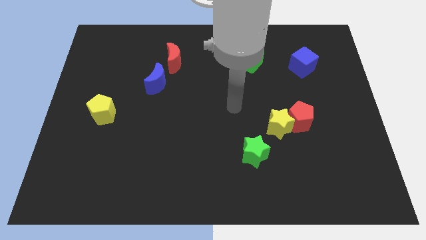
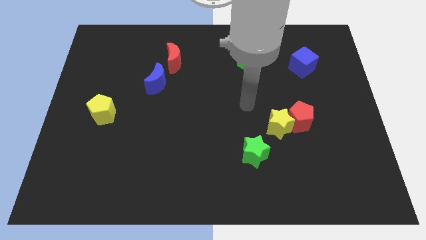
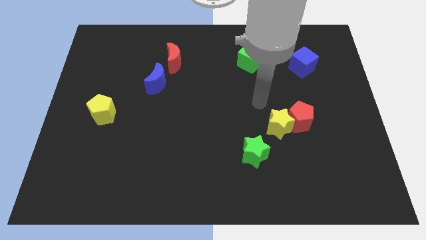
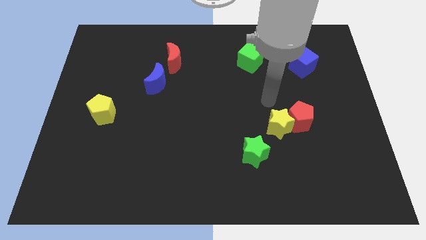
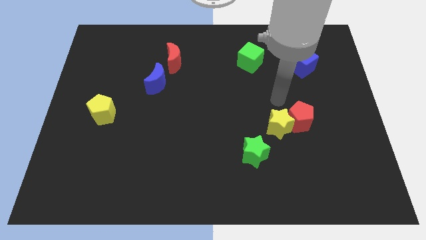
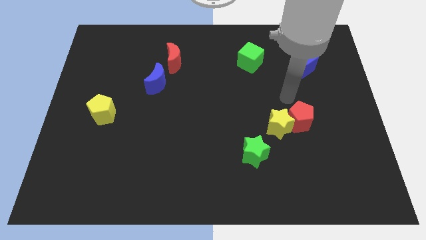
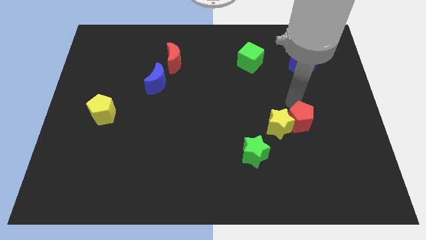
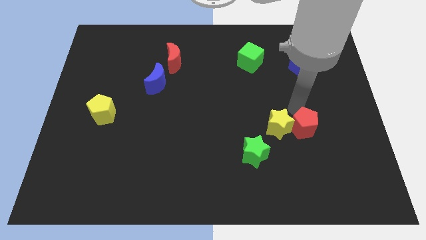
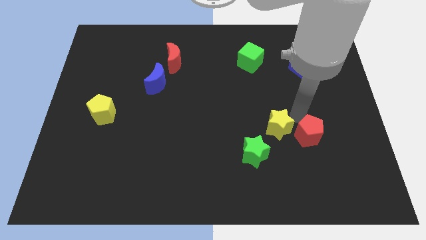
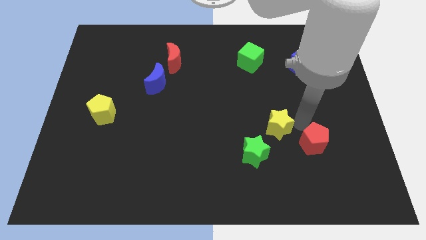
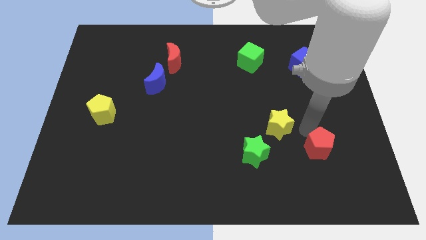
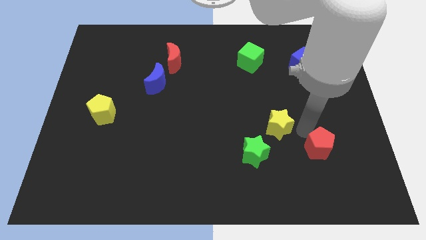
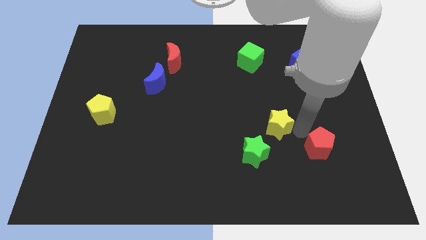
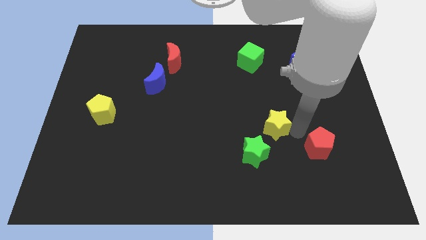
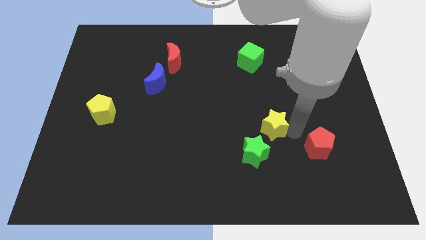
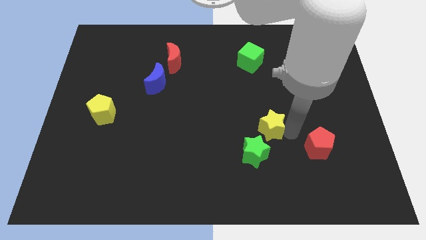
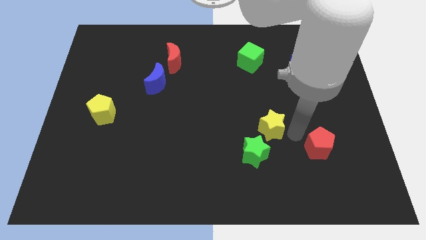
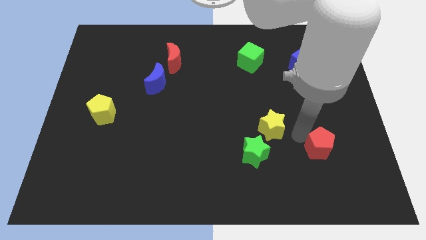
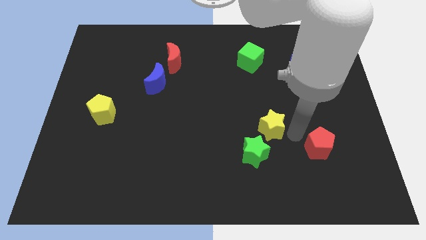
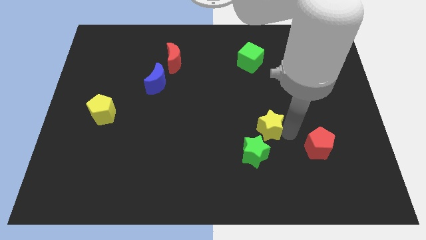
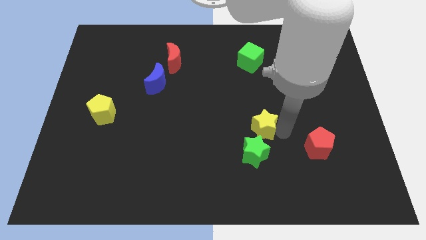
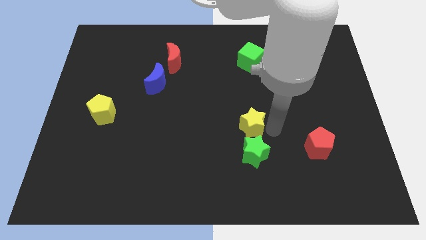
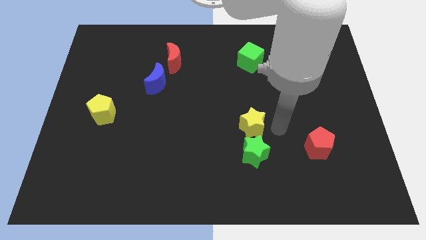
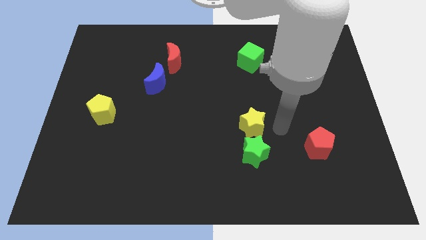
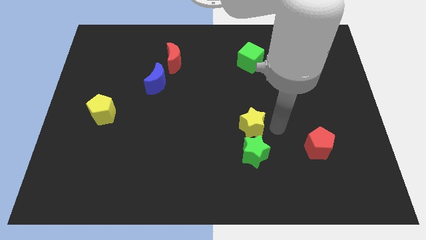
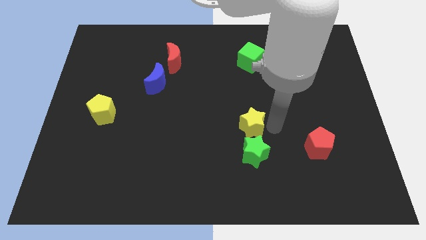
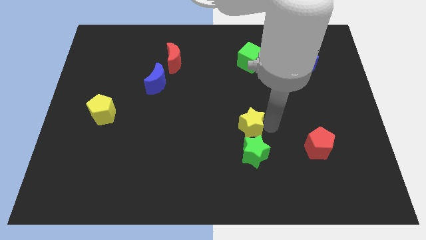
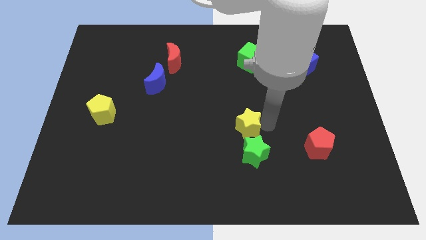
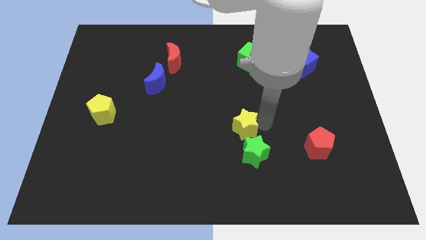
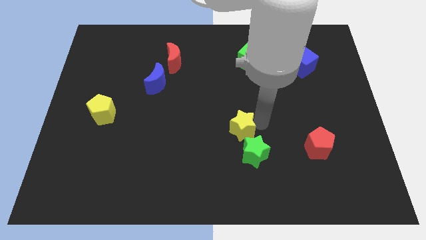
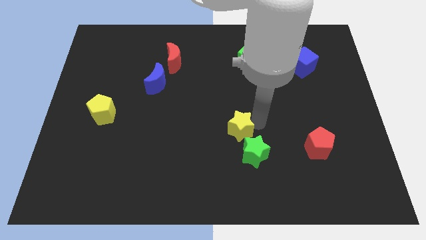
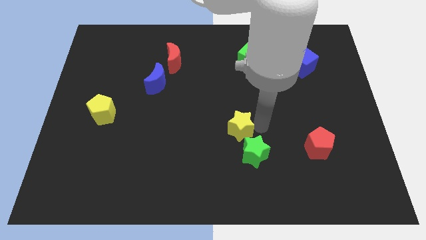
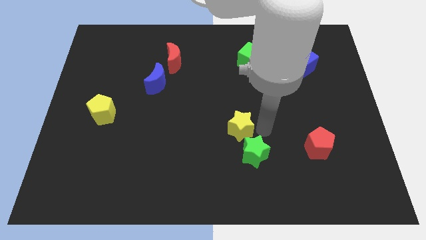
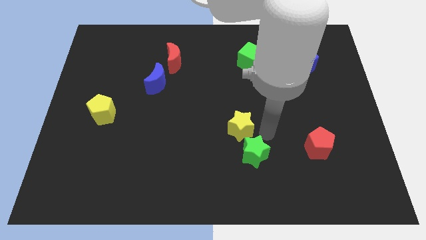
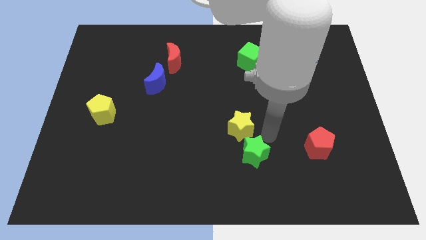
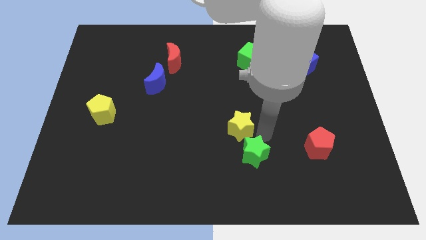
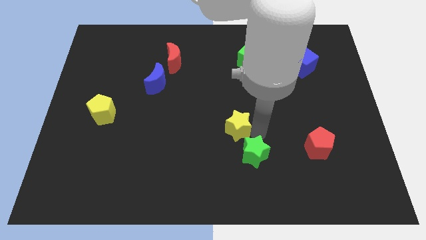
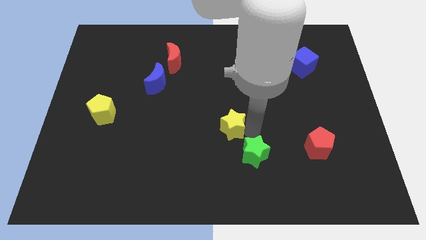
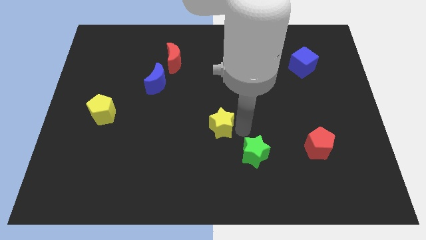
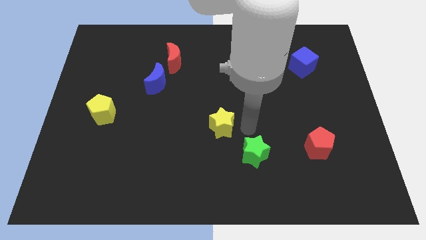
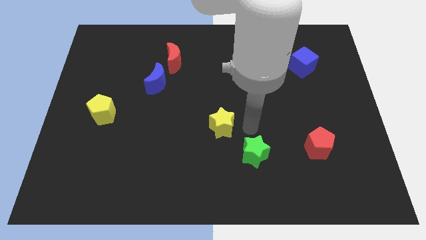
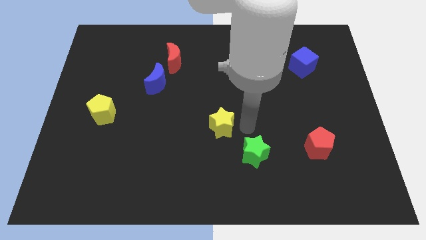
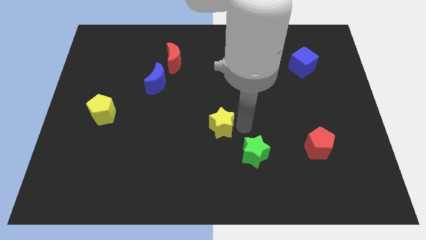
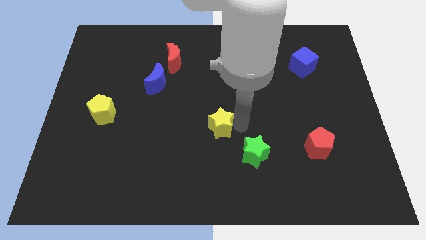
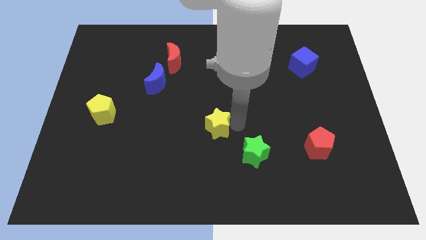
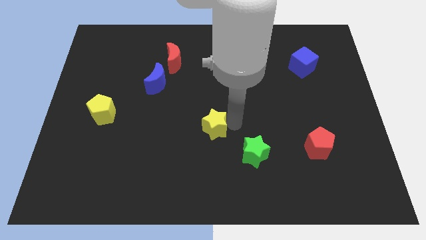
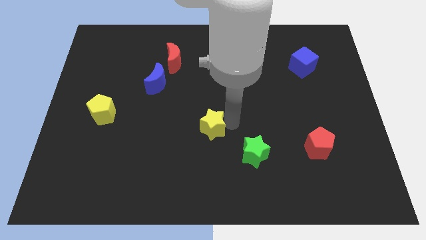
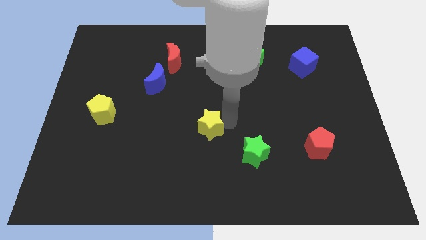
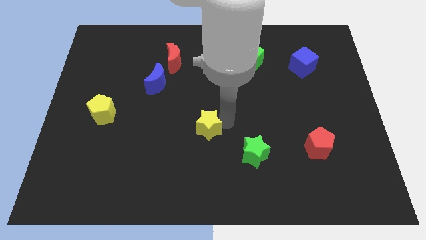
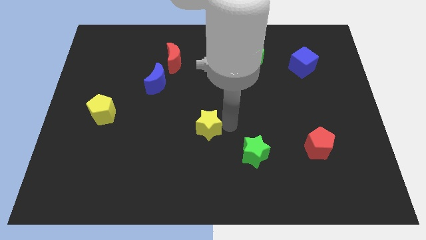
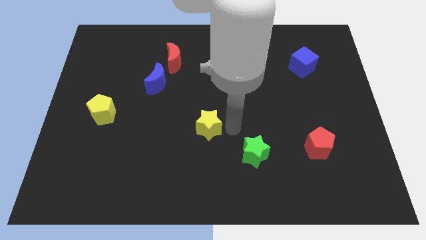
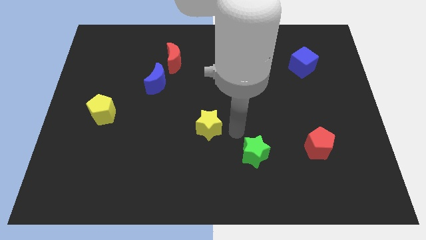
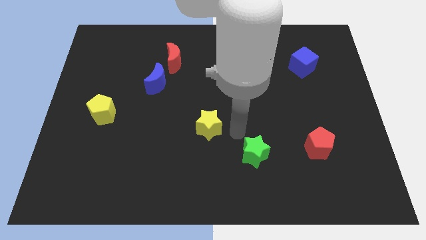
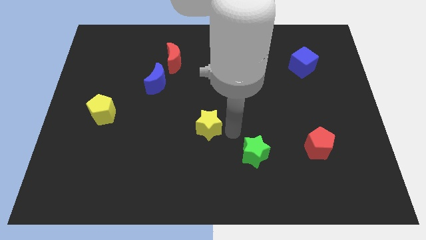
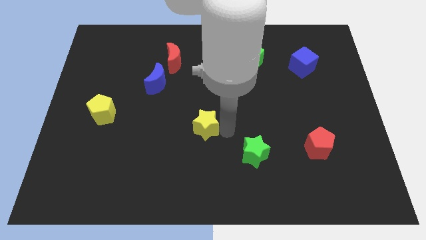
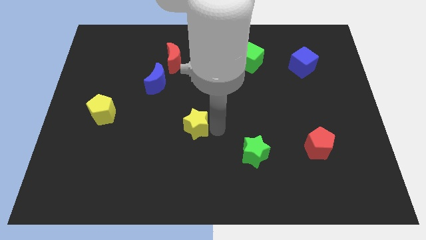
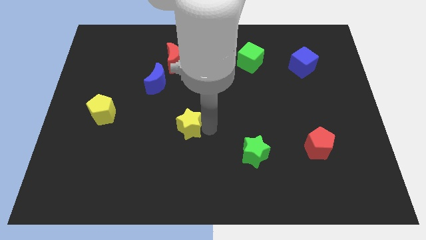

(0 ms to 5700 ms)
move the yellow star to the left

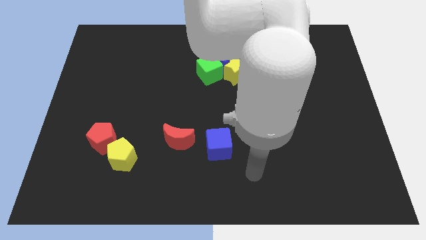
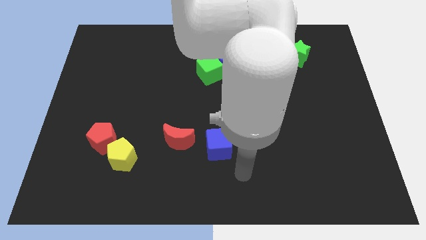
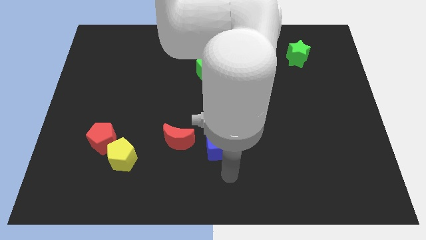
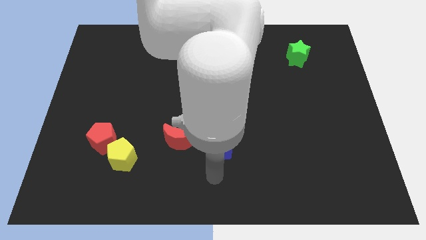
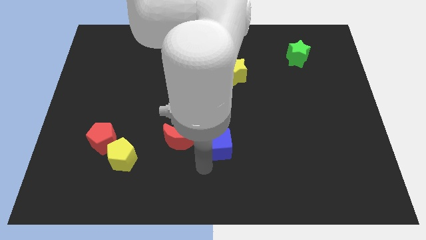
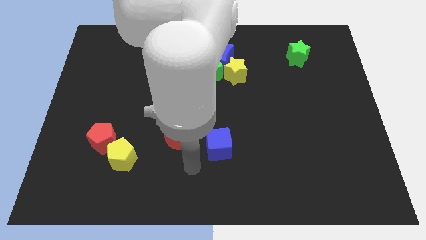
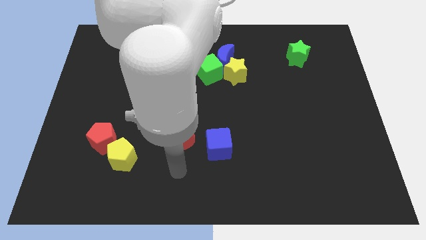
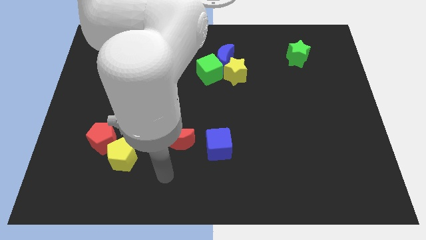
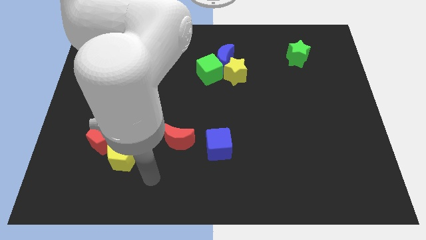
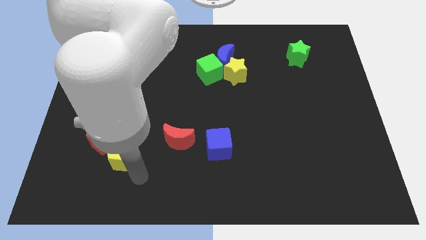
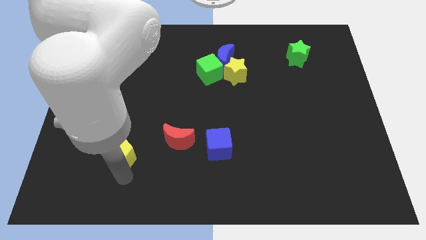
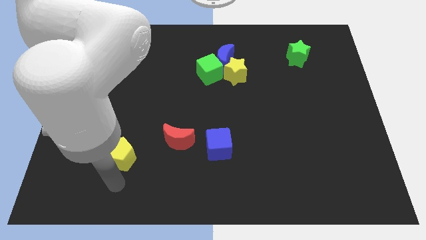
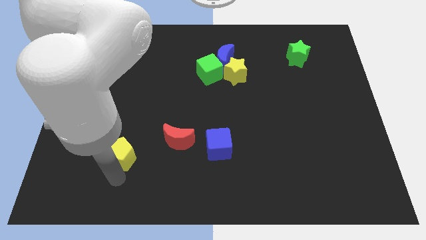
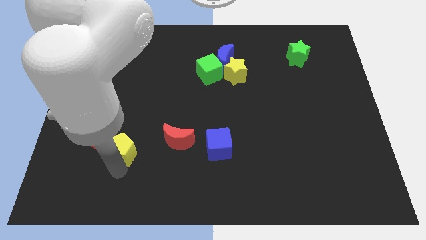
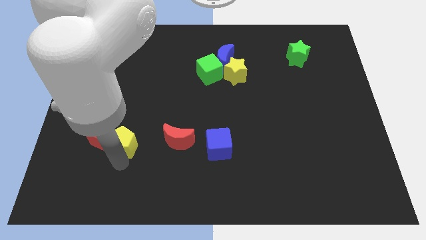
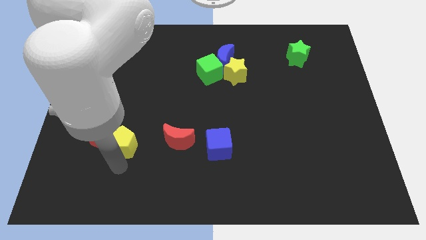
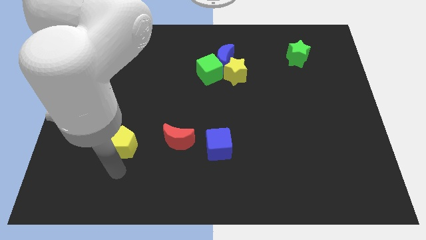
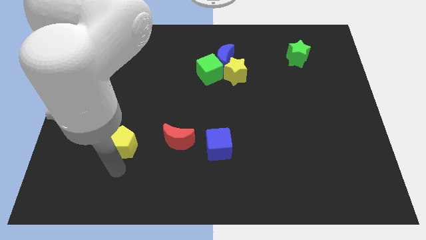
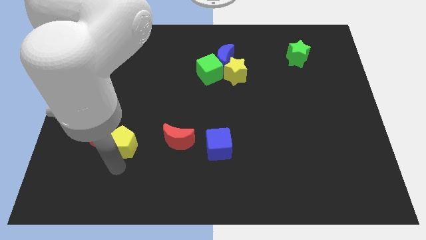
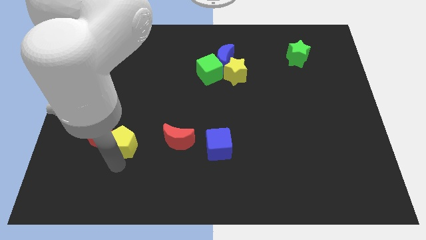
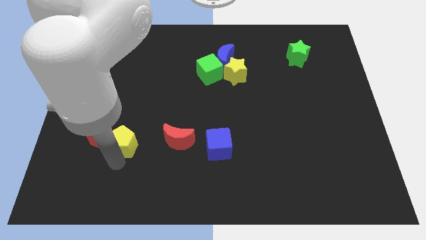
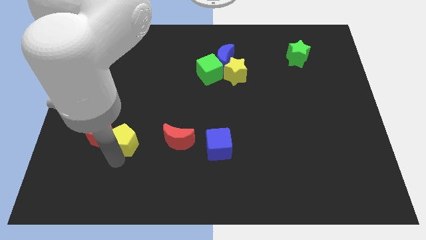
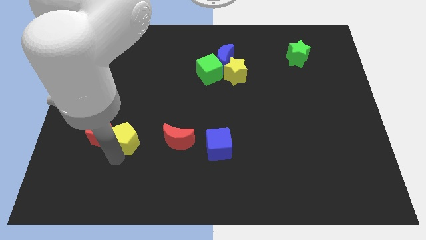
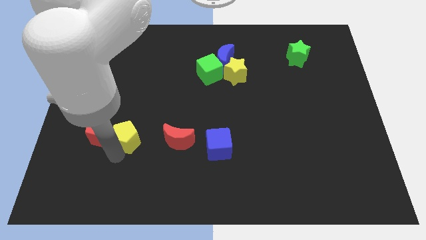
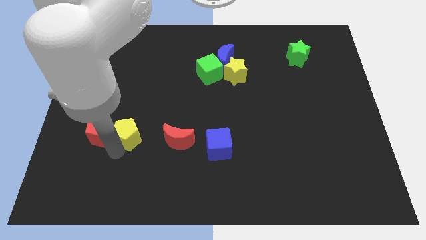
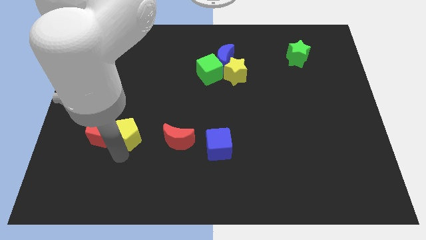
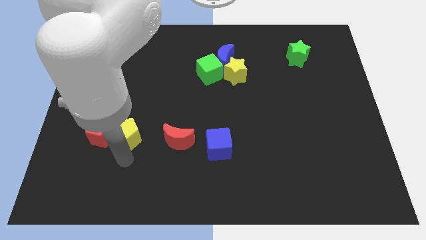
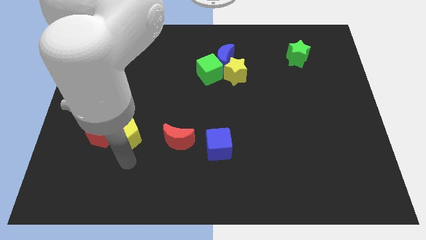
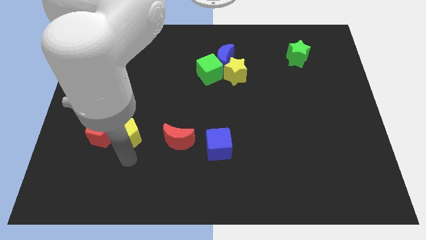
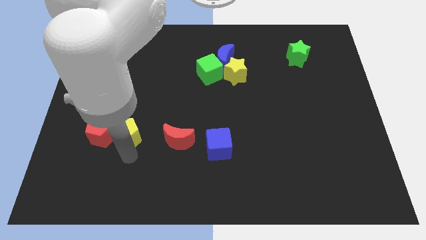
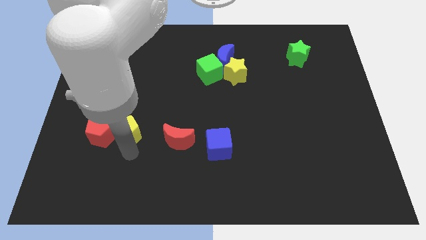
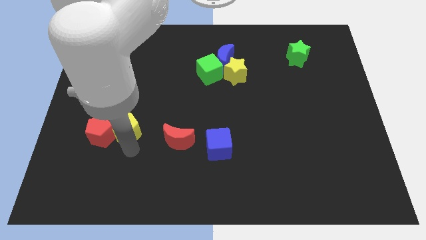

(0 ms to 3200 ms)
slightly slide the yellow pentagon up
